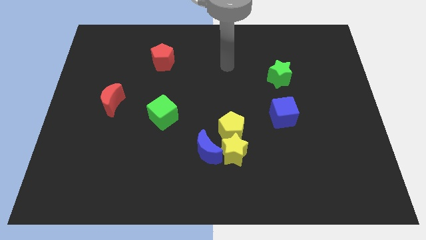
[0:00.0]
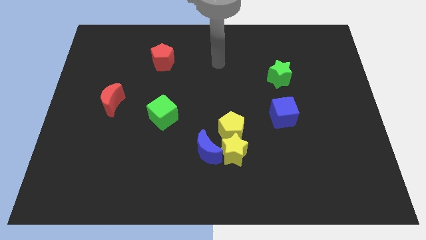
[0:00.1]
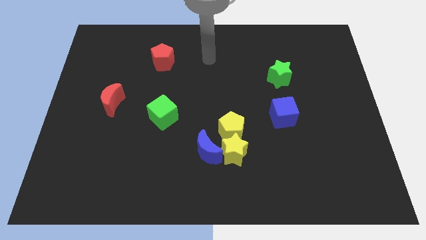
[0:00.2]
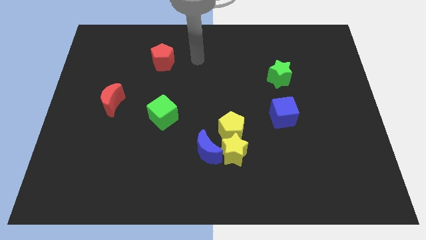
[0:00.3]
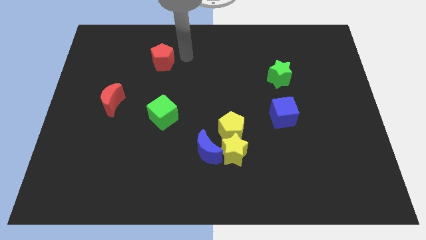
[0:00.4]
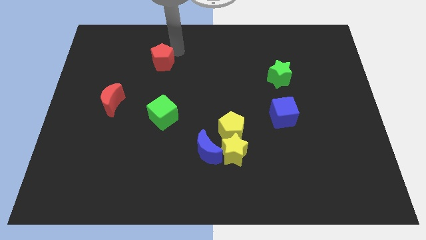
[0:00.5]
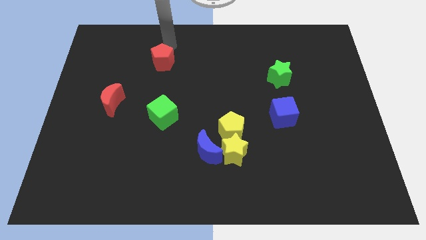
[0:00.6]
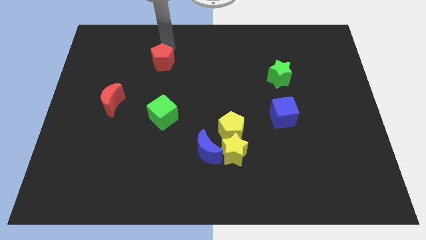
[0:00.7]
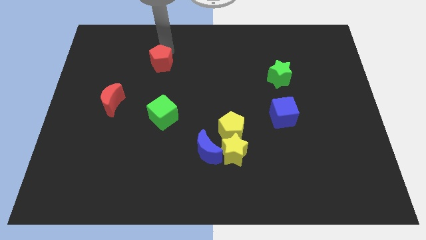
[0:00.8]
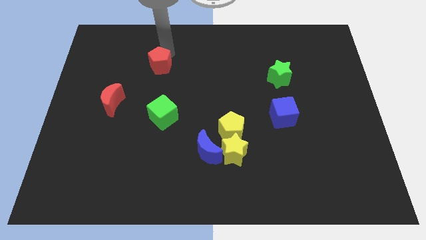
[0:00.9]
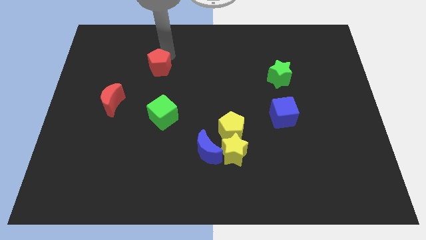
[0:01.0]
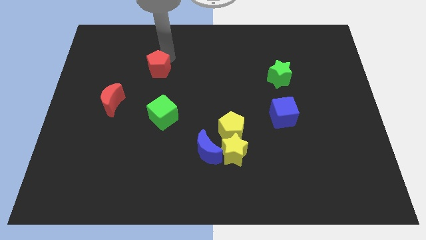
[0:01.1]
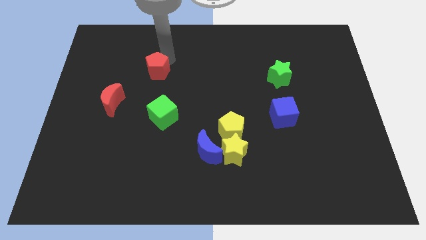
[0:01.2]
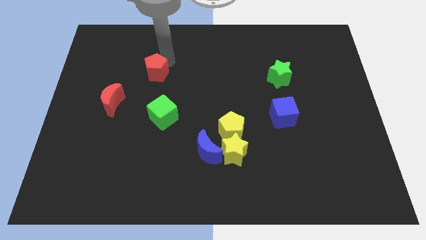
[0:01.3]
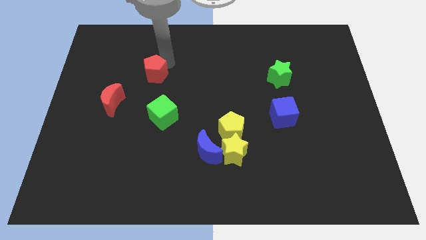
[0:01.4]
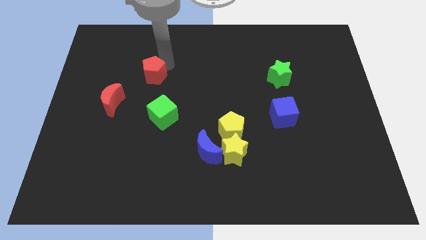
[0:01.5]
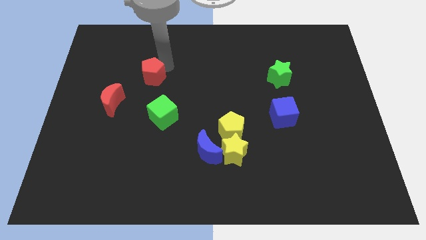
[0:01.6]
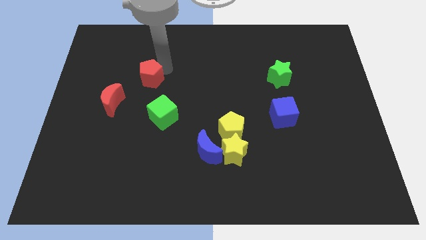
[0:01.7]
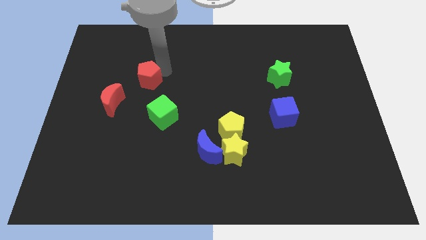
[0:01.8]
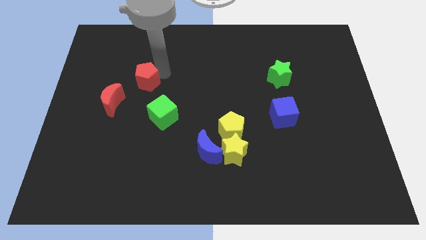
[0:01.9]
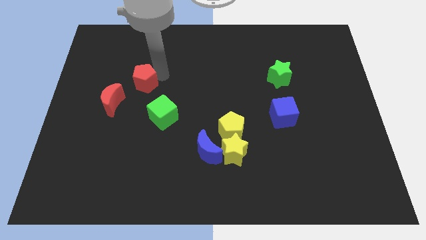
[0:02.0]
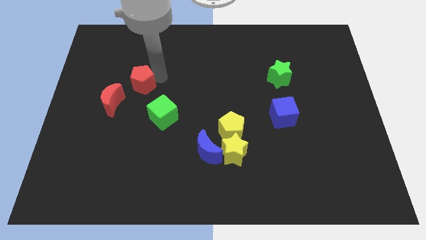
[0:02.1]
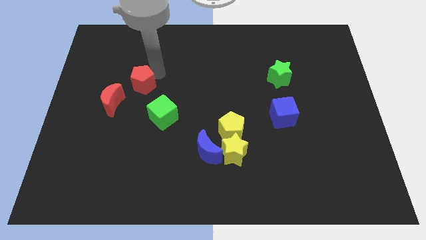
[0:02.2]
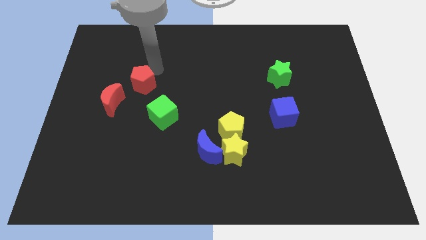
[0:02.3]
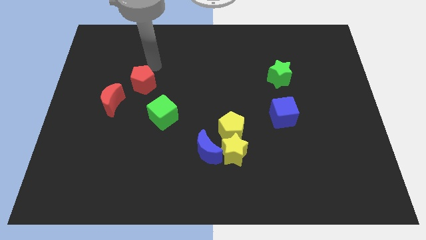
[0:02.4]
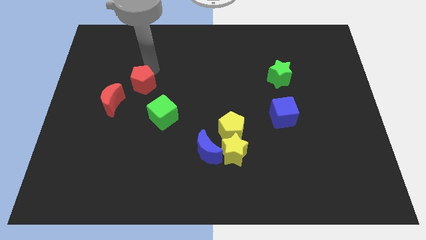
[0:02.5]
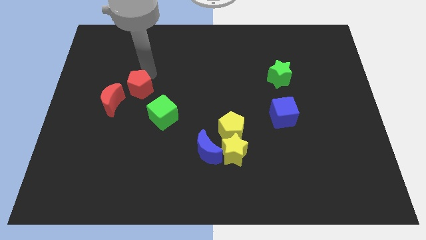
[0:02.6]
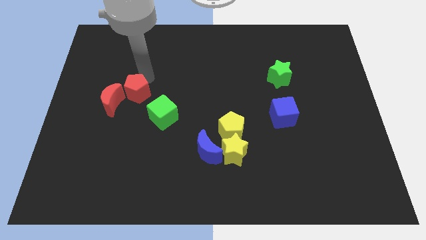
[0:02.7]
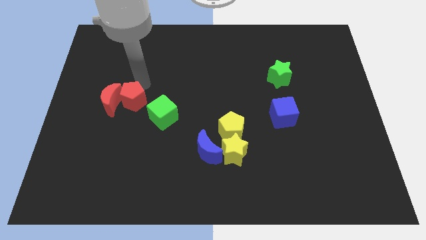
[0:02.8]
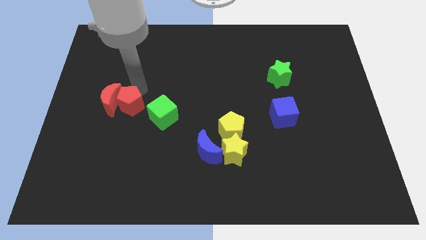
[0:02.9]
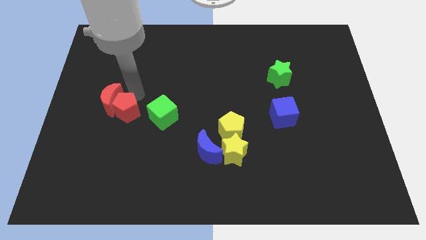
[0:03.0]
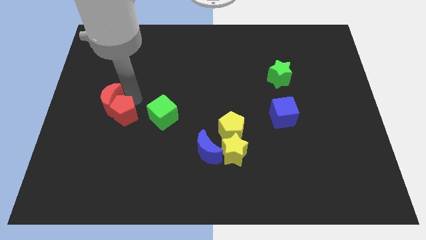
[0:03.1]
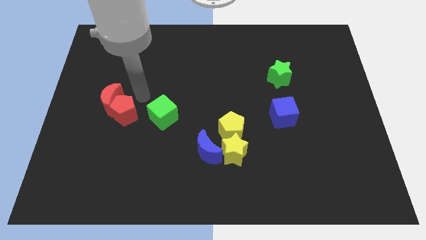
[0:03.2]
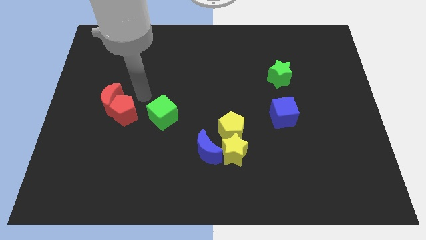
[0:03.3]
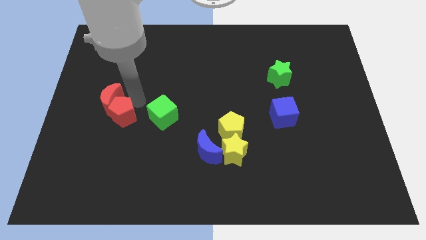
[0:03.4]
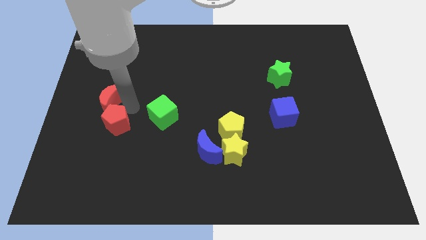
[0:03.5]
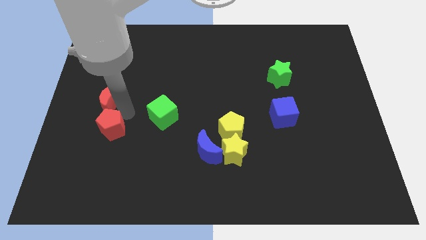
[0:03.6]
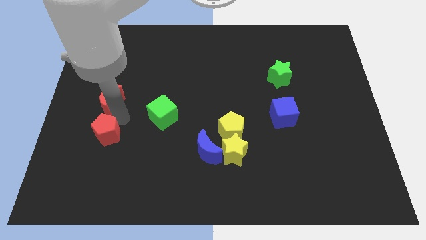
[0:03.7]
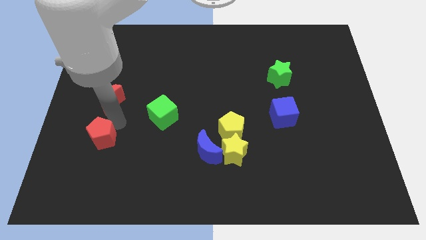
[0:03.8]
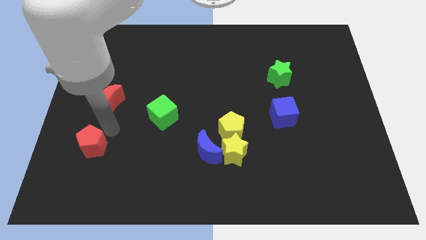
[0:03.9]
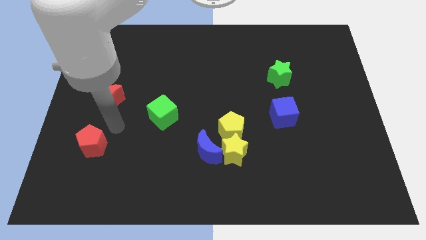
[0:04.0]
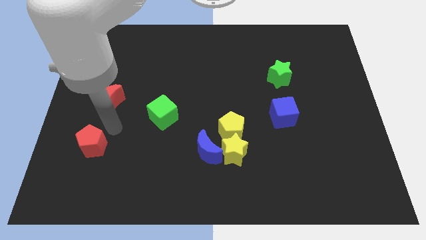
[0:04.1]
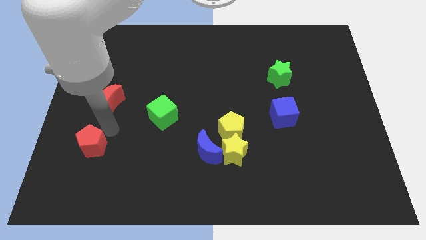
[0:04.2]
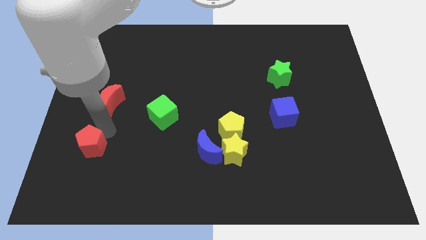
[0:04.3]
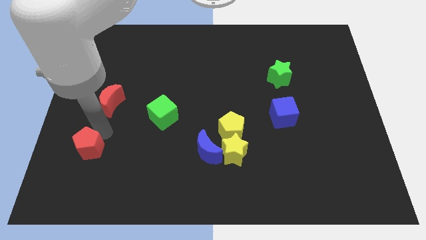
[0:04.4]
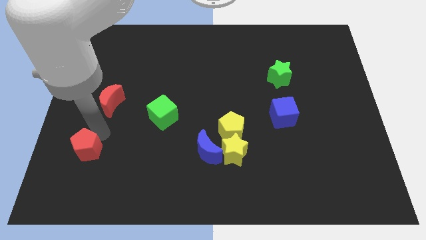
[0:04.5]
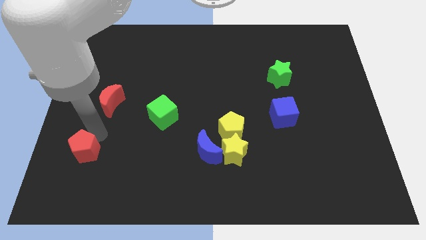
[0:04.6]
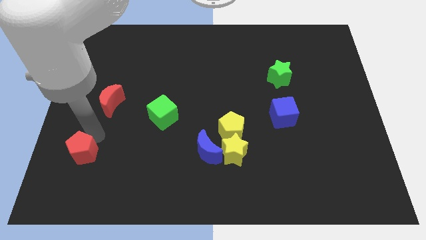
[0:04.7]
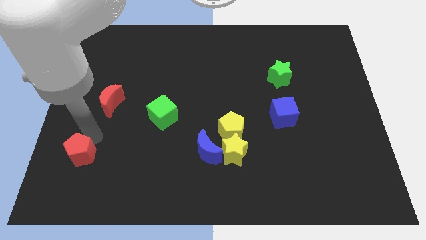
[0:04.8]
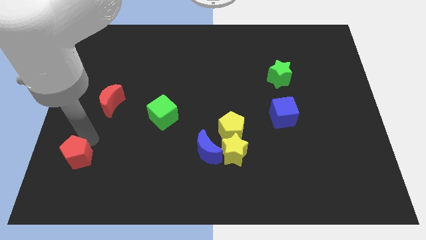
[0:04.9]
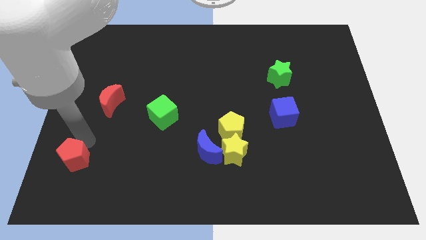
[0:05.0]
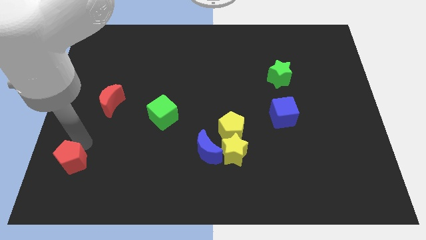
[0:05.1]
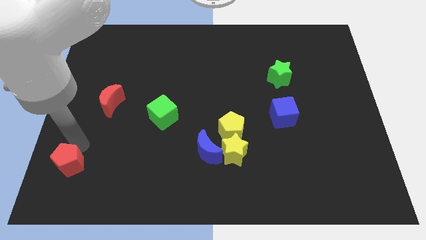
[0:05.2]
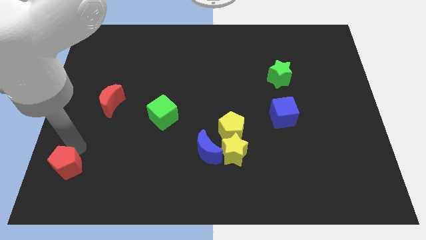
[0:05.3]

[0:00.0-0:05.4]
move the red pentagon to the lower left corner

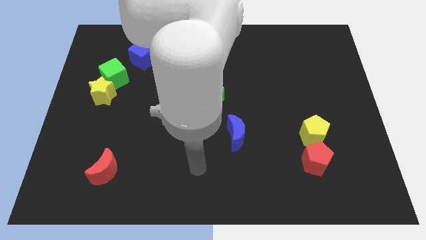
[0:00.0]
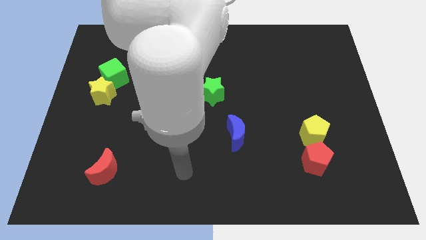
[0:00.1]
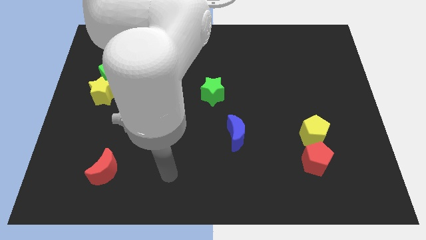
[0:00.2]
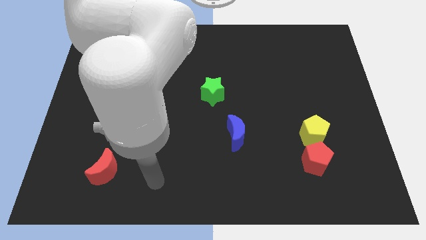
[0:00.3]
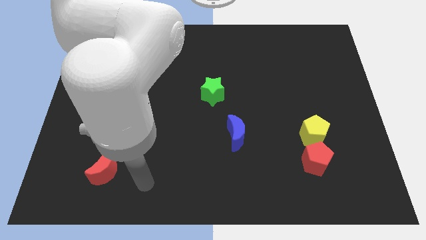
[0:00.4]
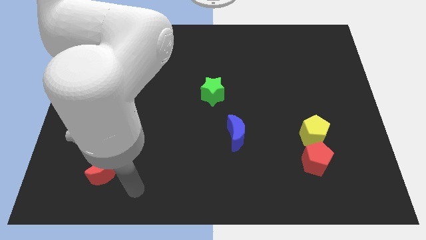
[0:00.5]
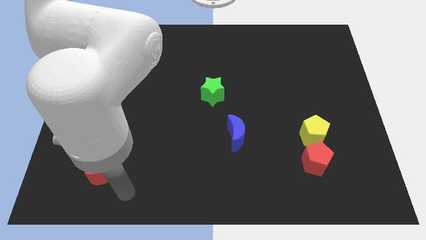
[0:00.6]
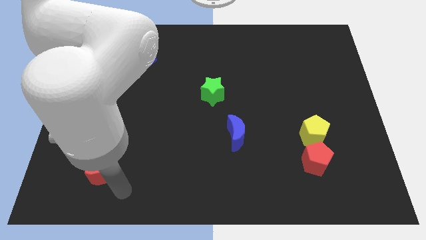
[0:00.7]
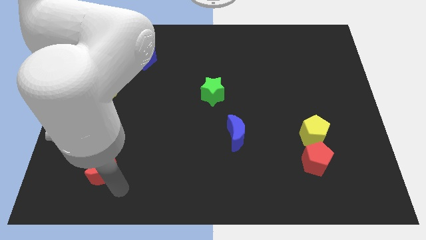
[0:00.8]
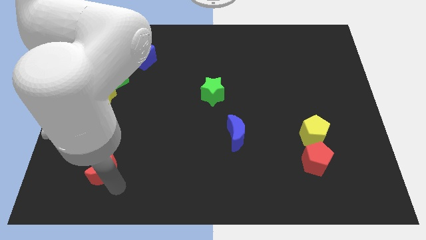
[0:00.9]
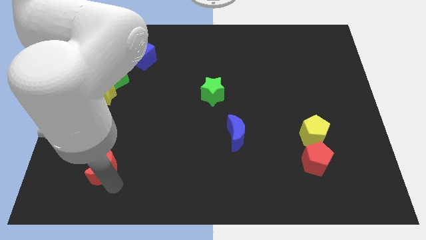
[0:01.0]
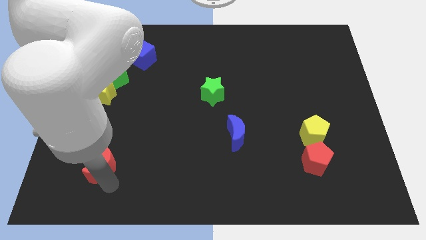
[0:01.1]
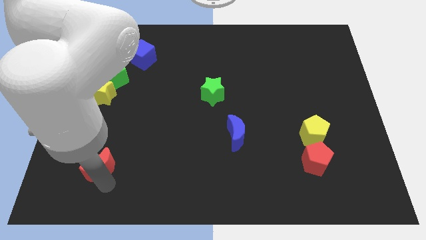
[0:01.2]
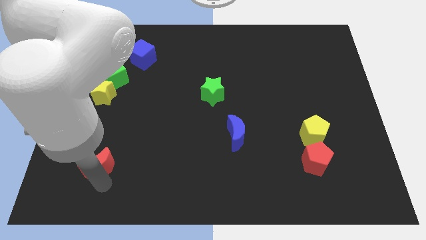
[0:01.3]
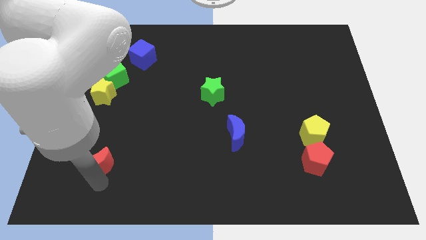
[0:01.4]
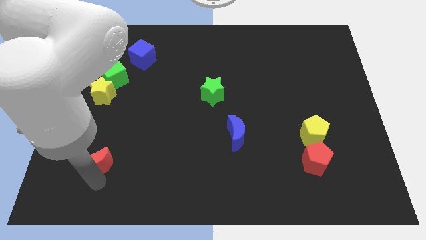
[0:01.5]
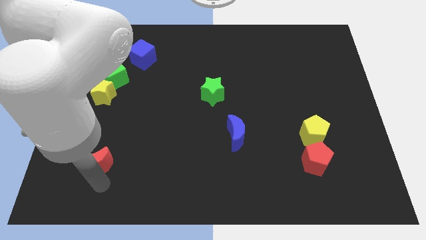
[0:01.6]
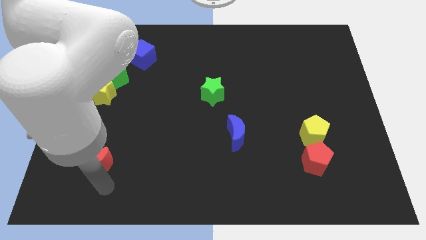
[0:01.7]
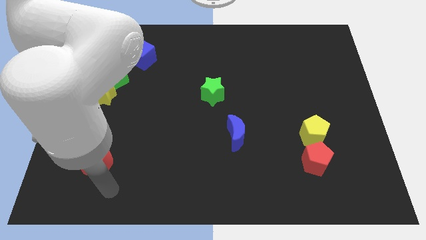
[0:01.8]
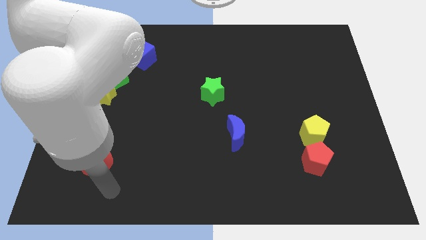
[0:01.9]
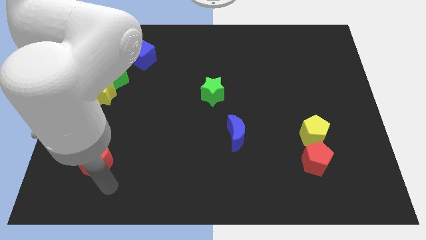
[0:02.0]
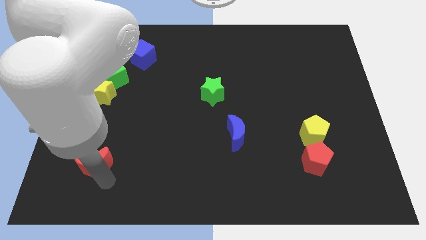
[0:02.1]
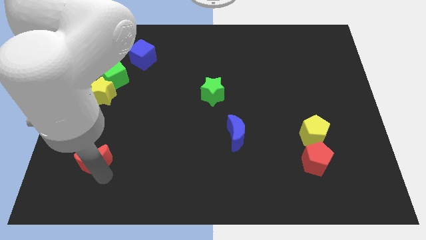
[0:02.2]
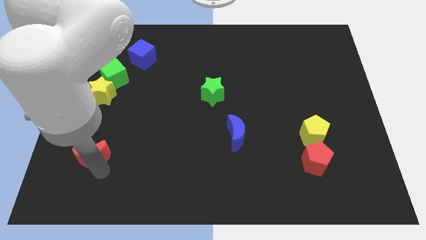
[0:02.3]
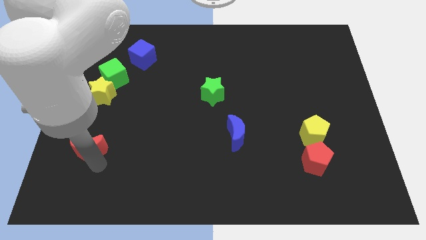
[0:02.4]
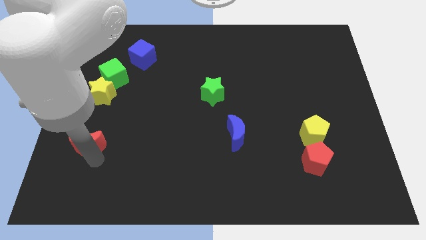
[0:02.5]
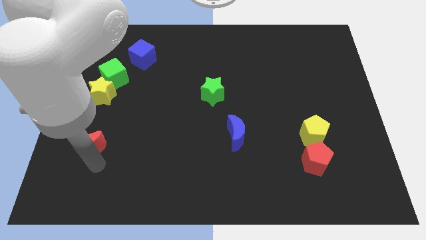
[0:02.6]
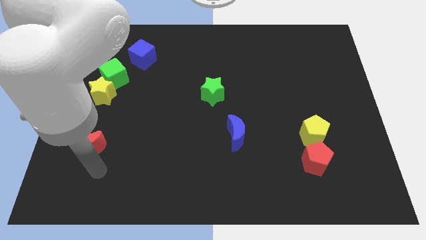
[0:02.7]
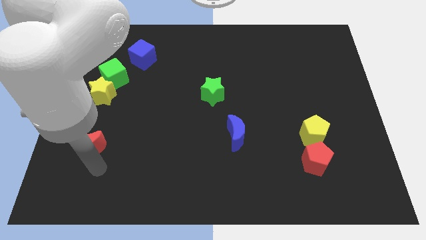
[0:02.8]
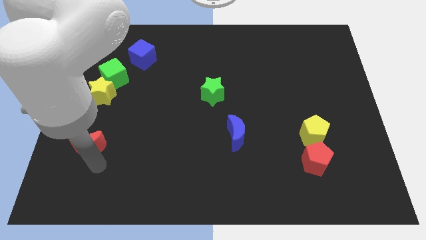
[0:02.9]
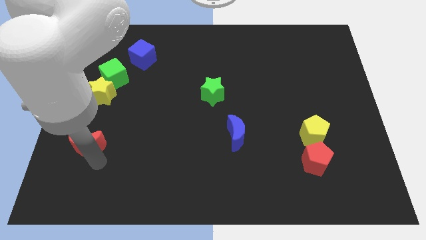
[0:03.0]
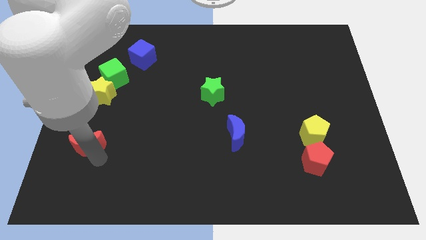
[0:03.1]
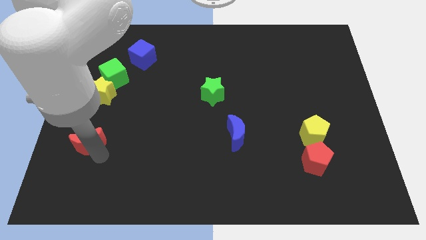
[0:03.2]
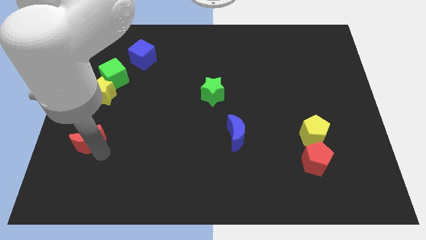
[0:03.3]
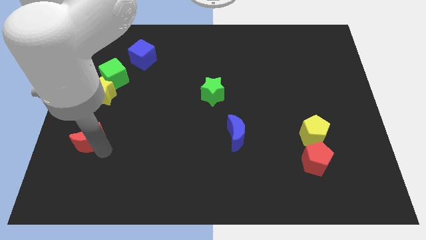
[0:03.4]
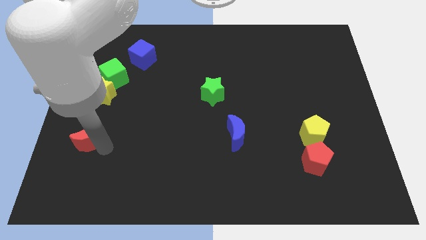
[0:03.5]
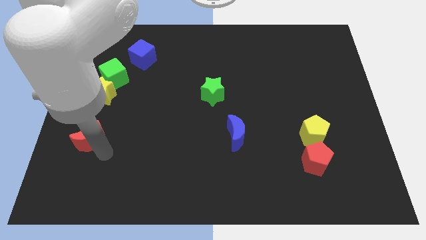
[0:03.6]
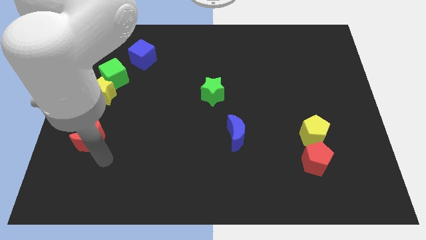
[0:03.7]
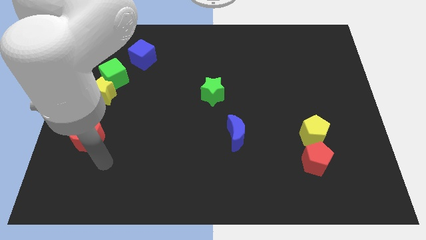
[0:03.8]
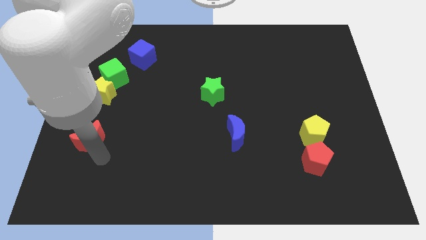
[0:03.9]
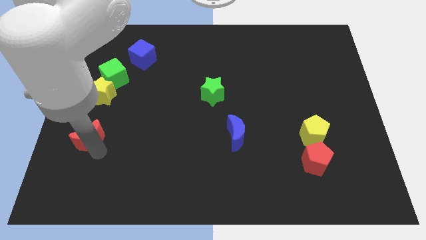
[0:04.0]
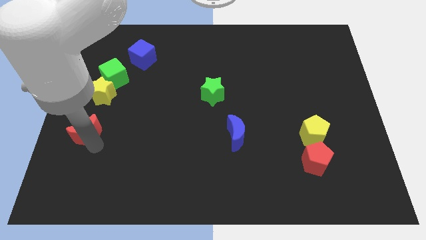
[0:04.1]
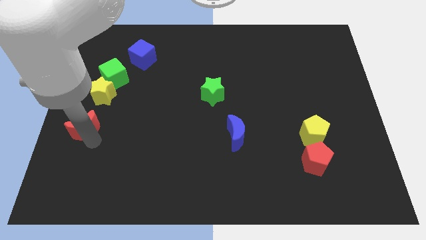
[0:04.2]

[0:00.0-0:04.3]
slide the red moon to the left side
